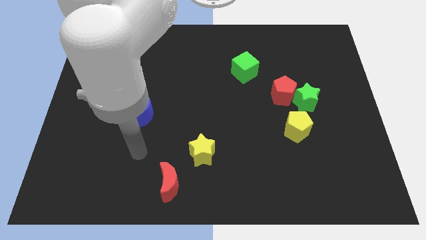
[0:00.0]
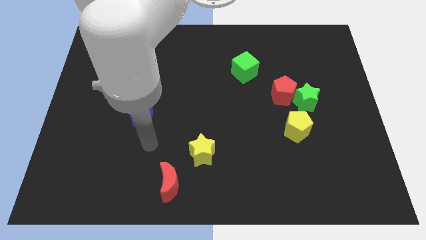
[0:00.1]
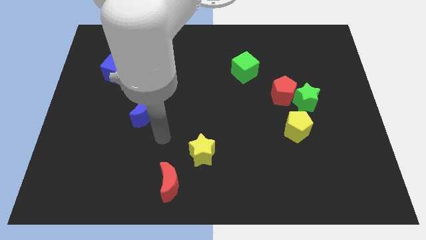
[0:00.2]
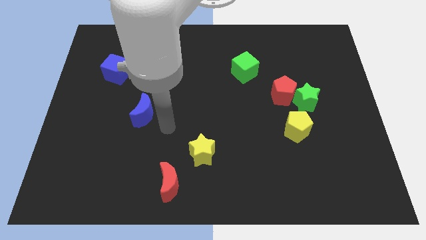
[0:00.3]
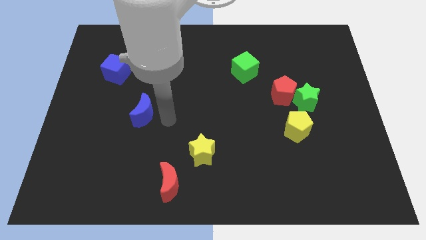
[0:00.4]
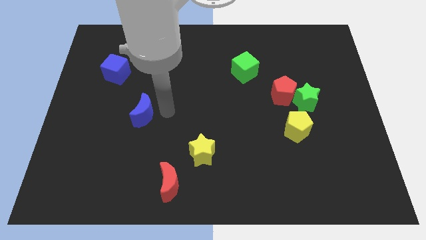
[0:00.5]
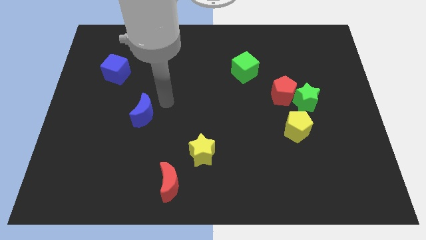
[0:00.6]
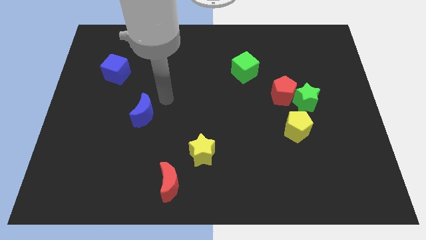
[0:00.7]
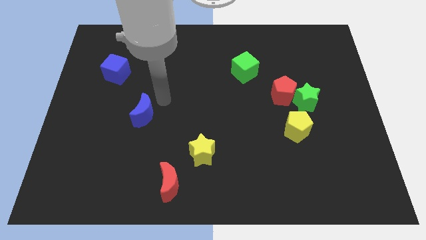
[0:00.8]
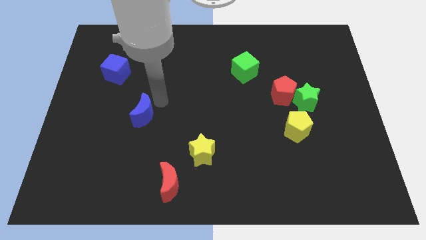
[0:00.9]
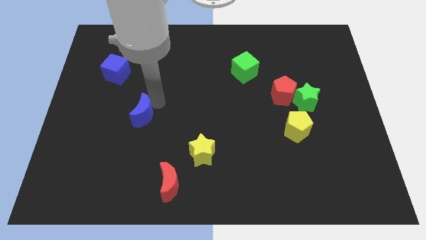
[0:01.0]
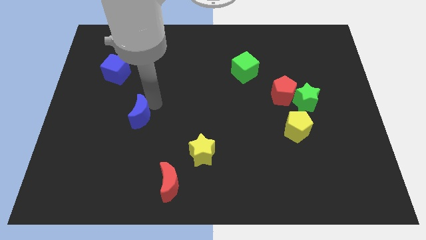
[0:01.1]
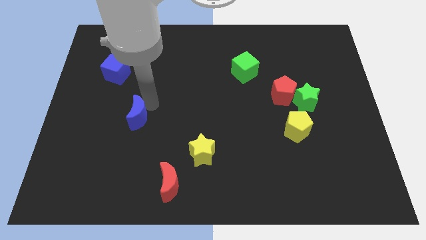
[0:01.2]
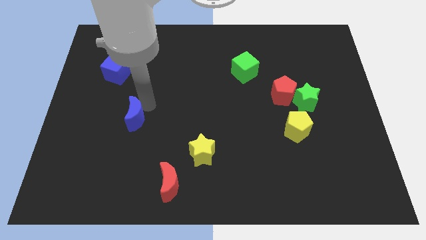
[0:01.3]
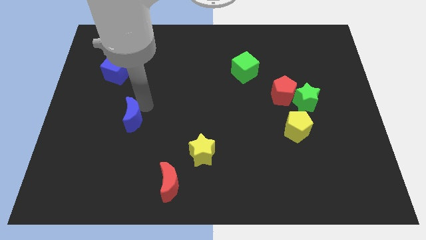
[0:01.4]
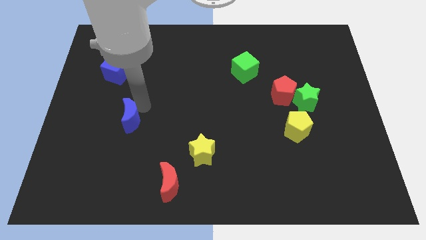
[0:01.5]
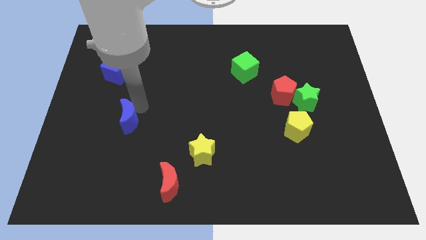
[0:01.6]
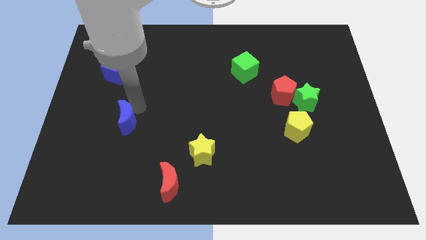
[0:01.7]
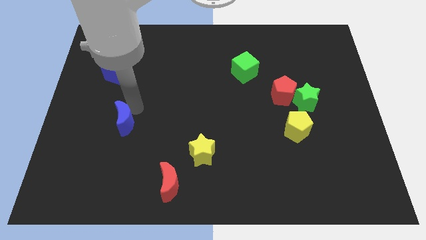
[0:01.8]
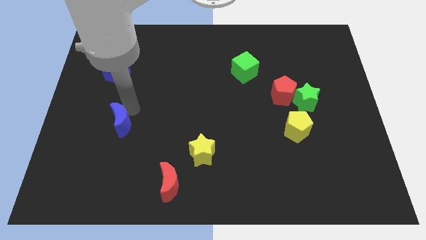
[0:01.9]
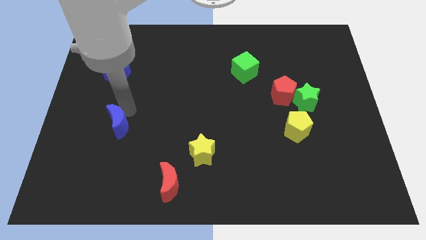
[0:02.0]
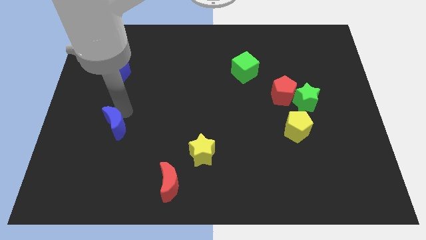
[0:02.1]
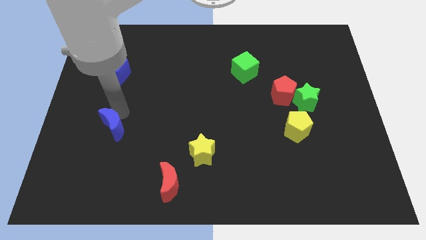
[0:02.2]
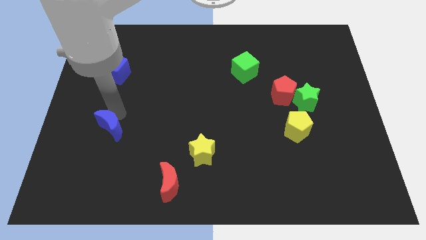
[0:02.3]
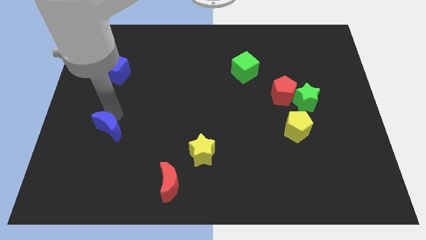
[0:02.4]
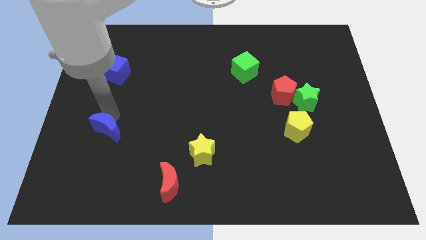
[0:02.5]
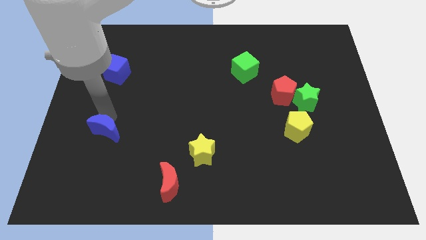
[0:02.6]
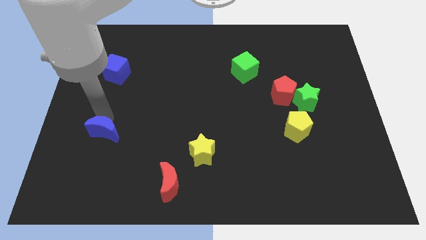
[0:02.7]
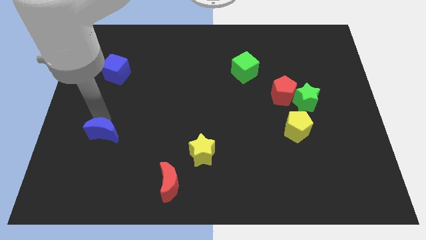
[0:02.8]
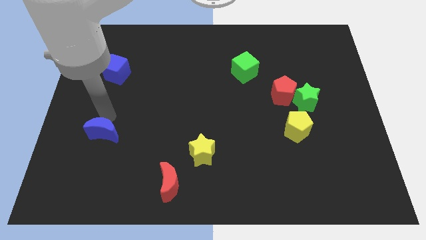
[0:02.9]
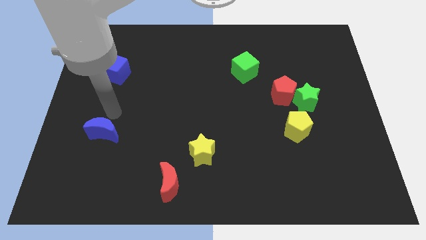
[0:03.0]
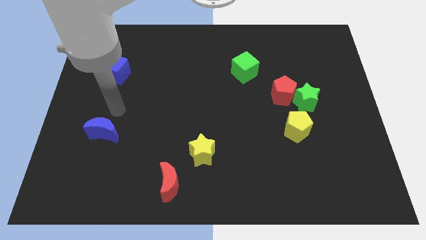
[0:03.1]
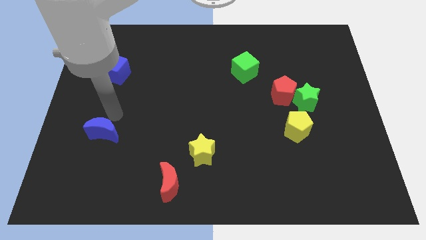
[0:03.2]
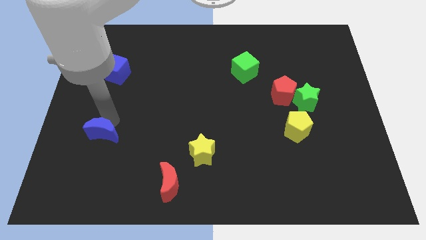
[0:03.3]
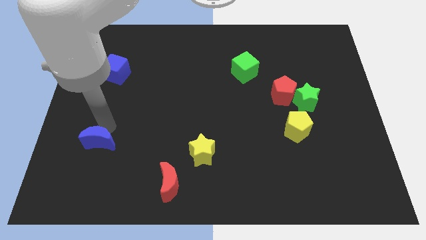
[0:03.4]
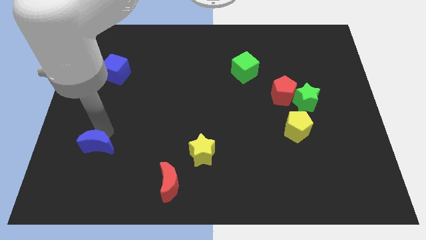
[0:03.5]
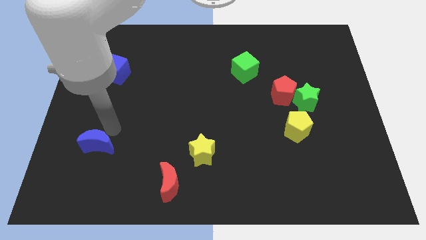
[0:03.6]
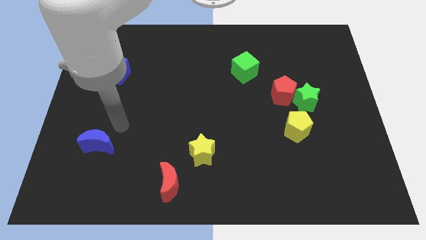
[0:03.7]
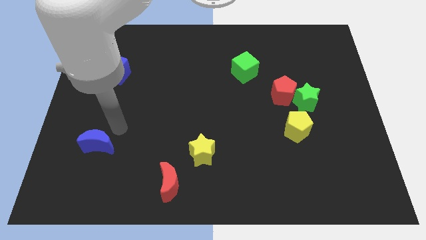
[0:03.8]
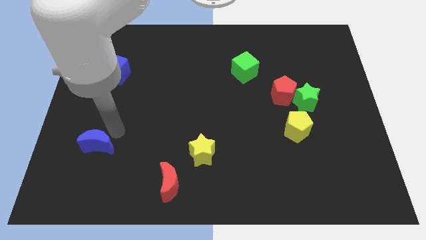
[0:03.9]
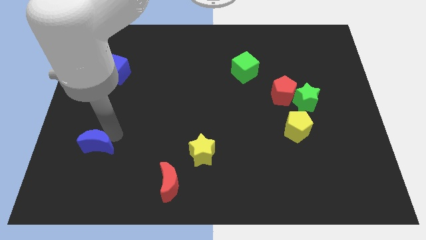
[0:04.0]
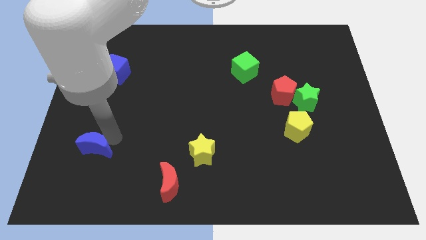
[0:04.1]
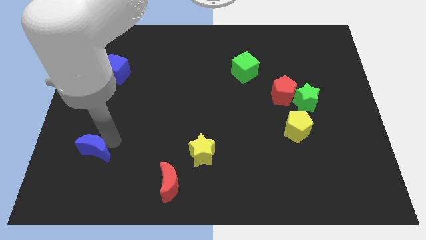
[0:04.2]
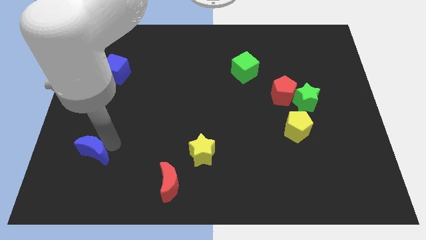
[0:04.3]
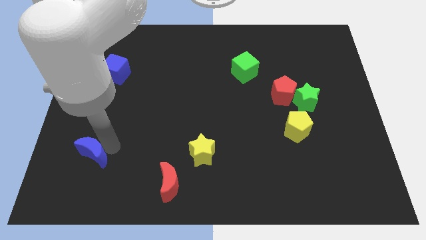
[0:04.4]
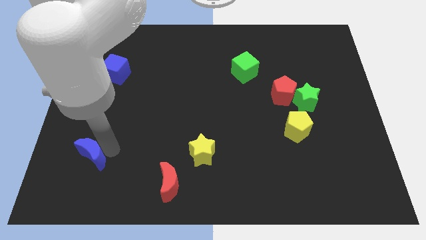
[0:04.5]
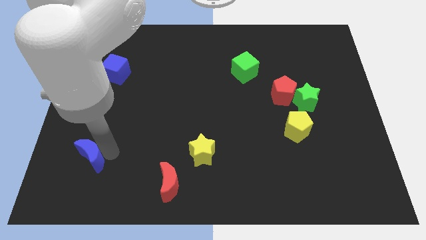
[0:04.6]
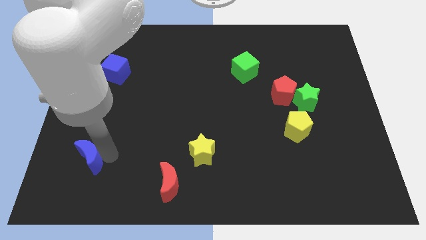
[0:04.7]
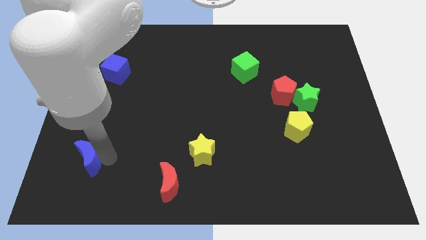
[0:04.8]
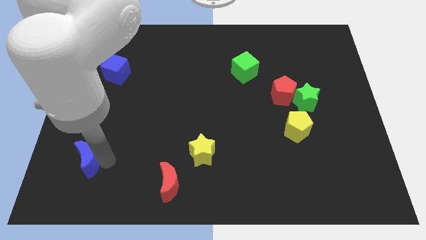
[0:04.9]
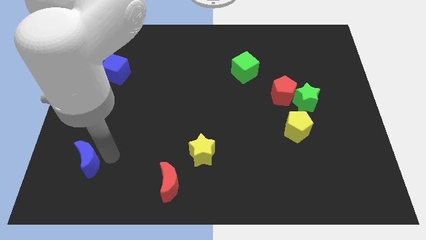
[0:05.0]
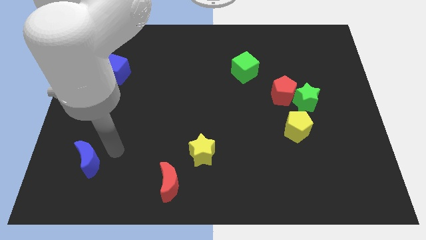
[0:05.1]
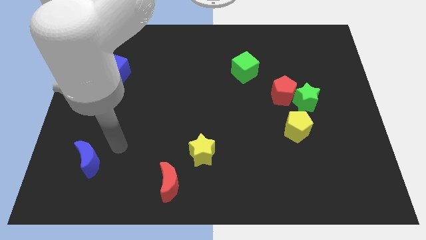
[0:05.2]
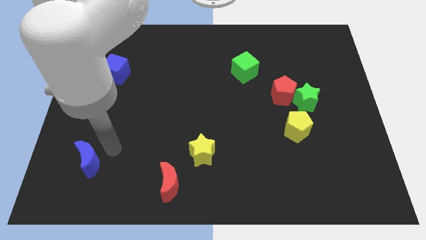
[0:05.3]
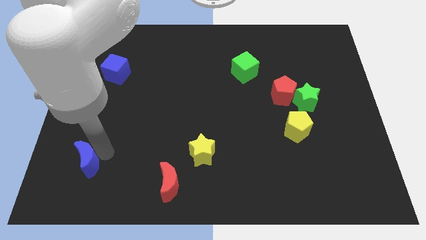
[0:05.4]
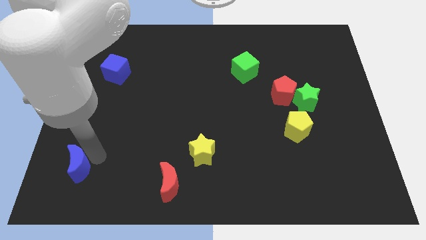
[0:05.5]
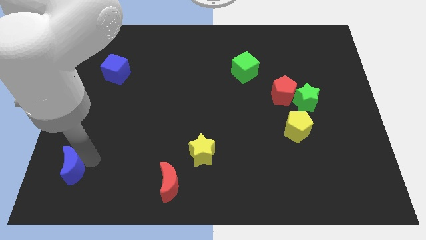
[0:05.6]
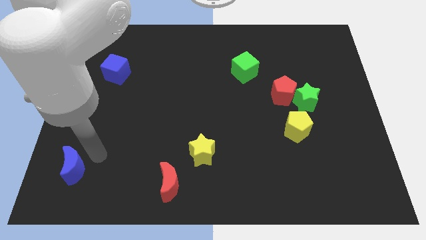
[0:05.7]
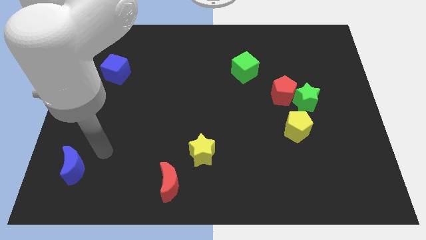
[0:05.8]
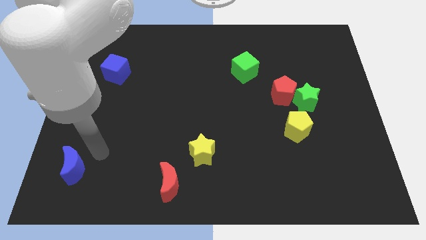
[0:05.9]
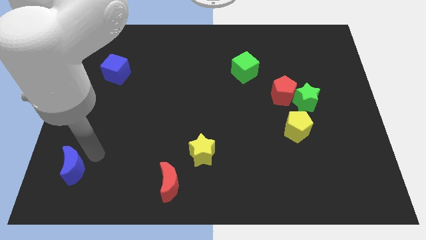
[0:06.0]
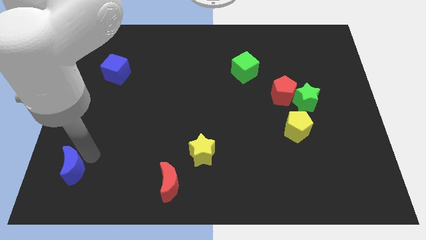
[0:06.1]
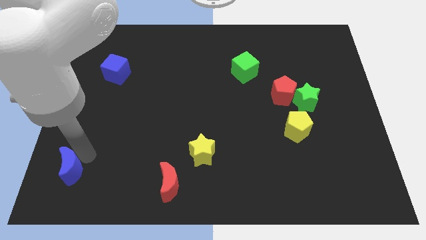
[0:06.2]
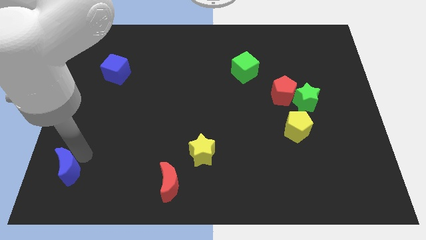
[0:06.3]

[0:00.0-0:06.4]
push the blue moon to the bottom left corner
